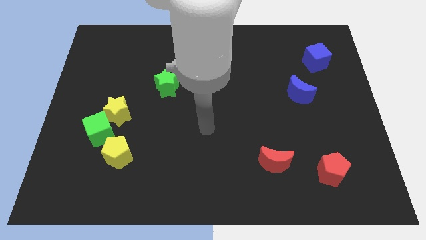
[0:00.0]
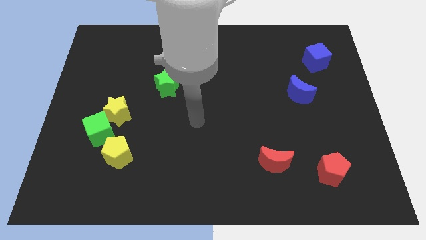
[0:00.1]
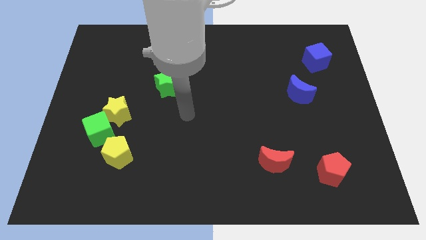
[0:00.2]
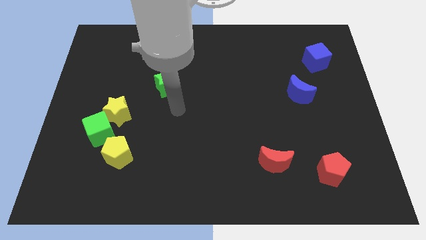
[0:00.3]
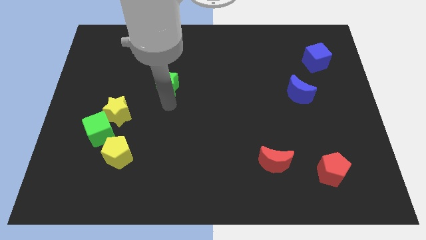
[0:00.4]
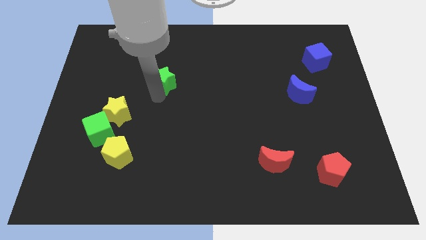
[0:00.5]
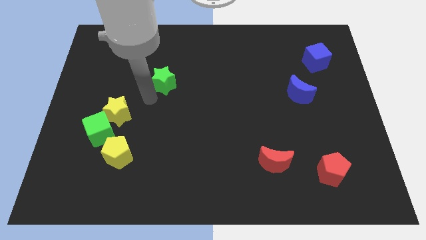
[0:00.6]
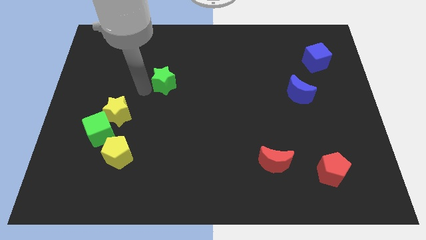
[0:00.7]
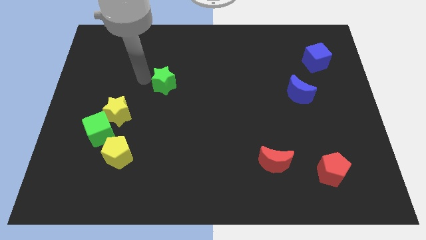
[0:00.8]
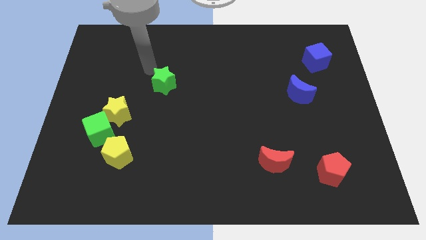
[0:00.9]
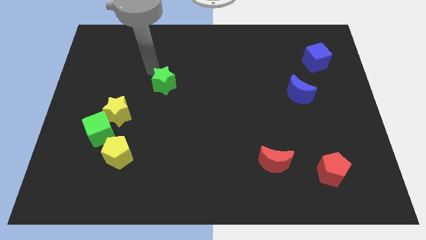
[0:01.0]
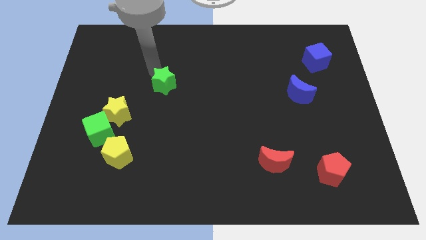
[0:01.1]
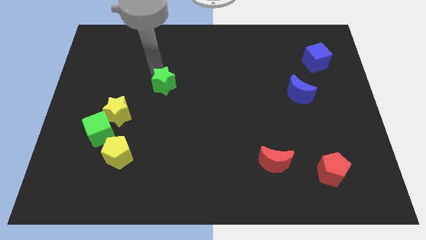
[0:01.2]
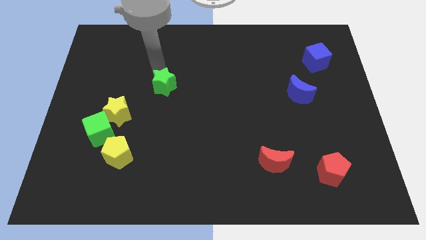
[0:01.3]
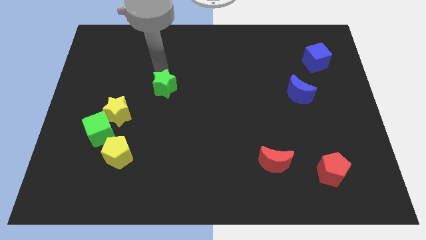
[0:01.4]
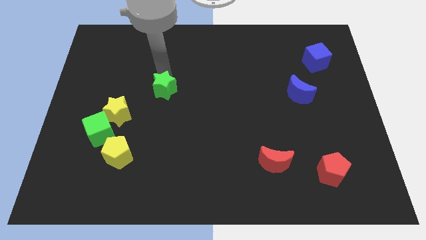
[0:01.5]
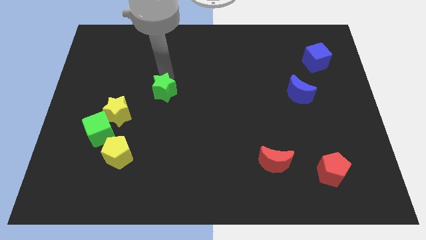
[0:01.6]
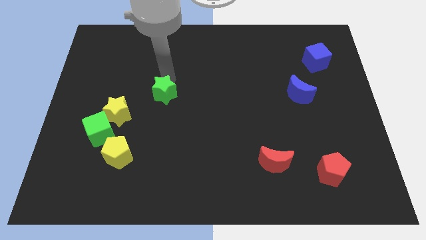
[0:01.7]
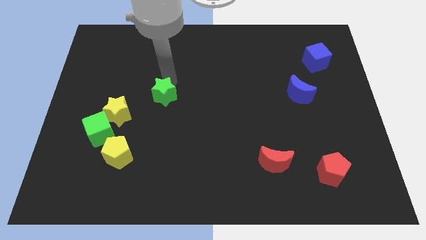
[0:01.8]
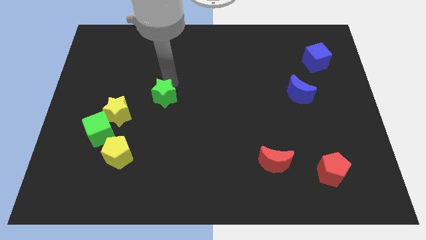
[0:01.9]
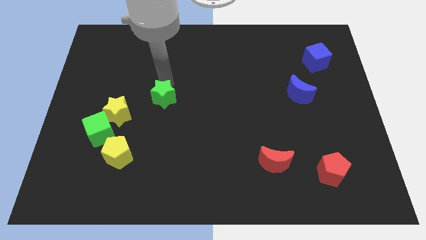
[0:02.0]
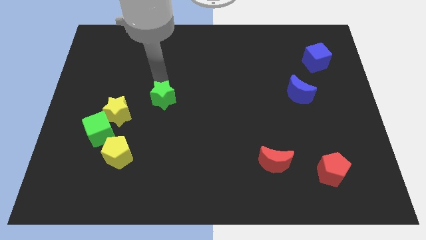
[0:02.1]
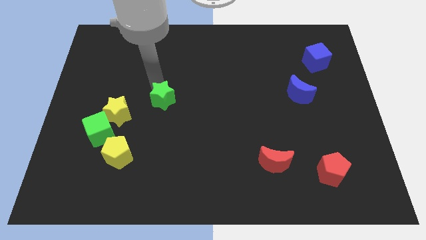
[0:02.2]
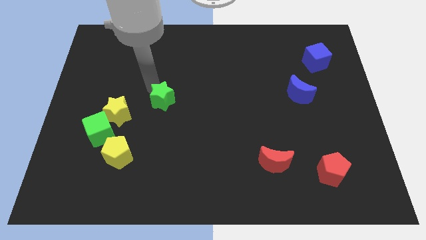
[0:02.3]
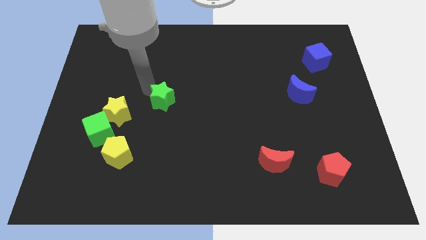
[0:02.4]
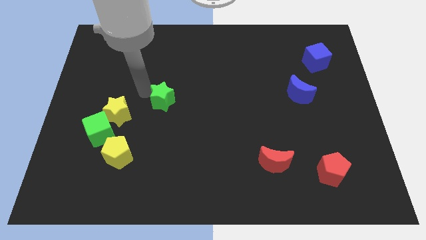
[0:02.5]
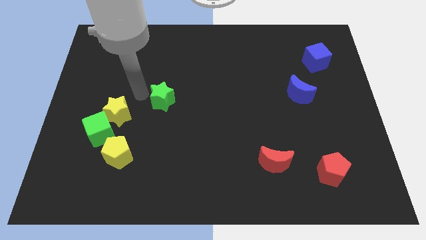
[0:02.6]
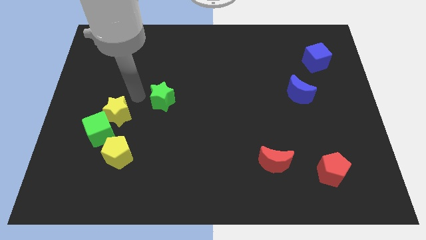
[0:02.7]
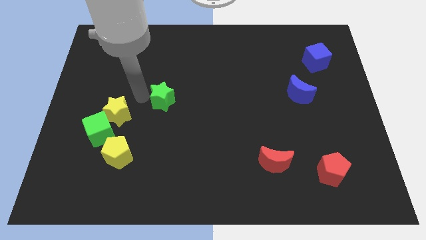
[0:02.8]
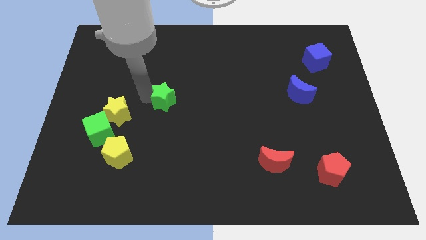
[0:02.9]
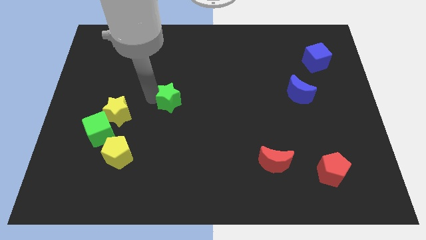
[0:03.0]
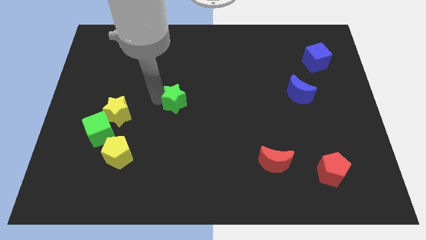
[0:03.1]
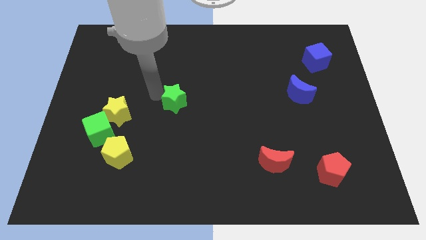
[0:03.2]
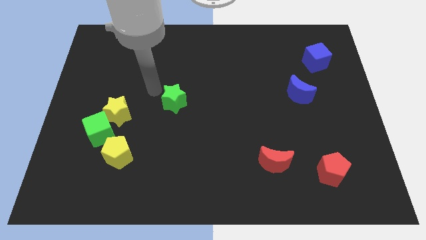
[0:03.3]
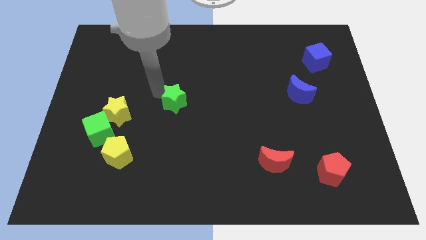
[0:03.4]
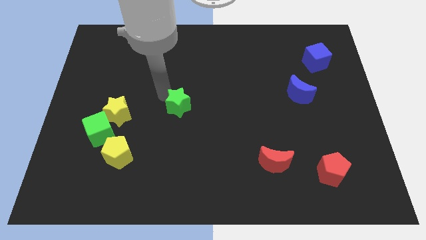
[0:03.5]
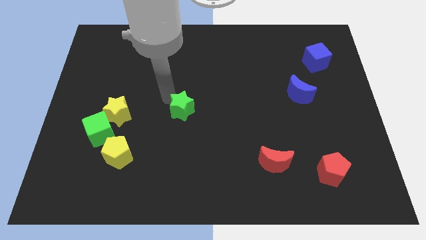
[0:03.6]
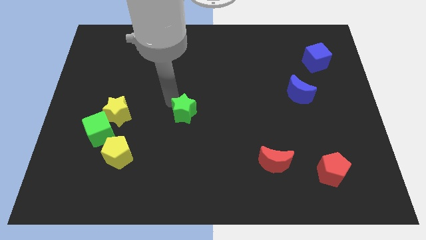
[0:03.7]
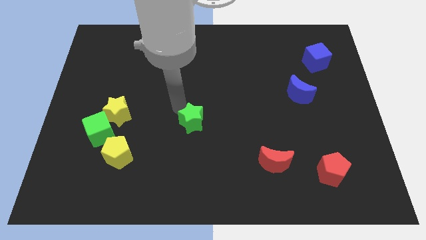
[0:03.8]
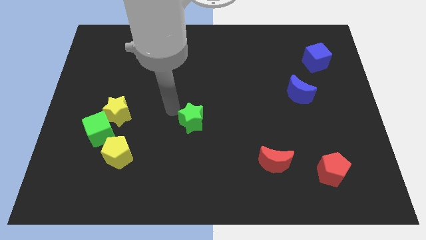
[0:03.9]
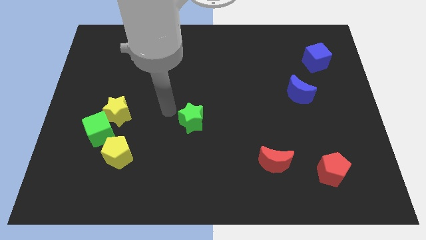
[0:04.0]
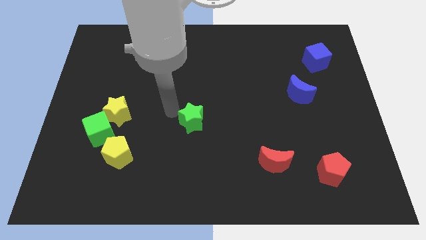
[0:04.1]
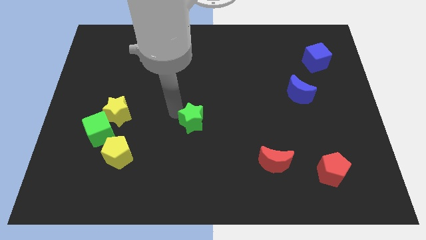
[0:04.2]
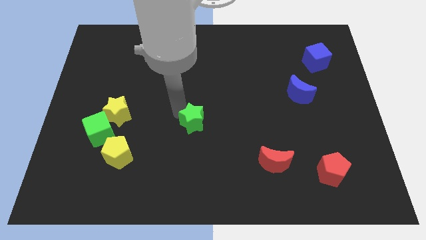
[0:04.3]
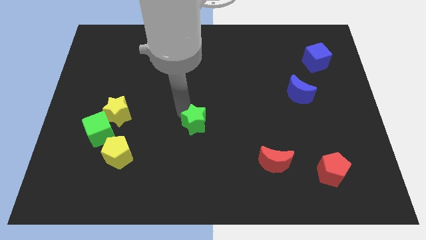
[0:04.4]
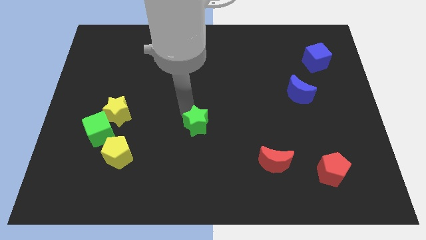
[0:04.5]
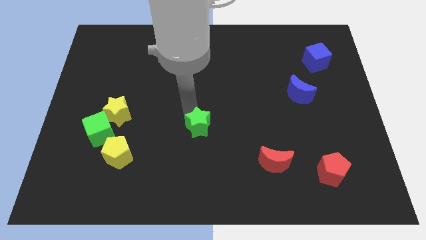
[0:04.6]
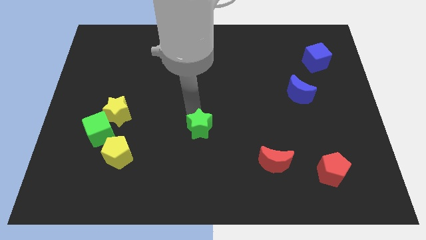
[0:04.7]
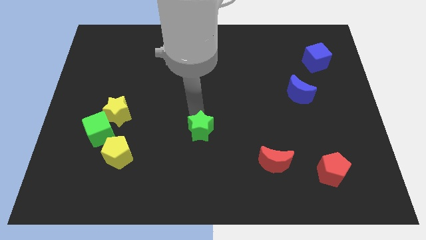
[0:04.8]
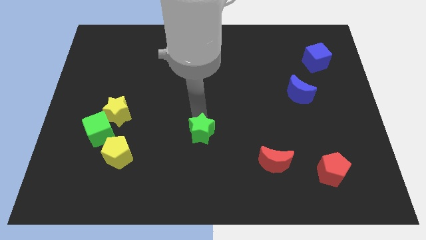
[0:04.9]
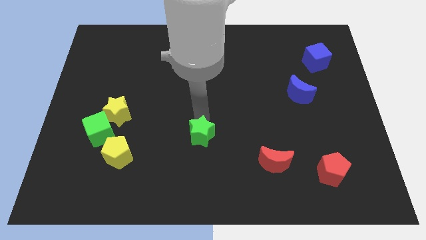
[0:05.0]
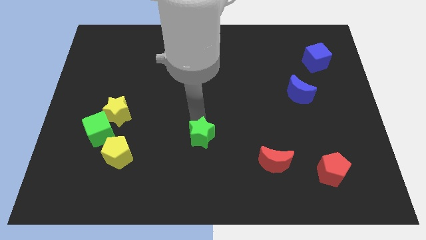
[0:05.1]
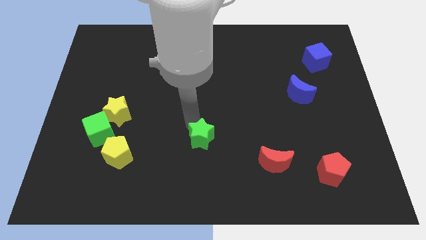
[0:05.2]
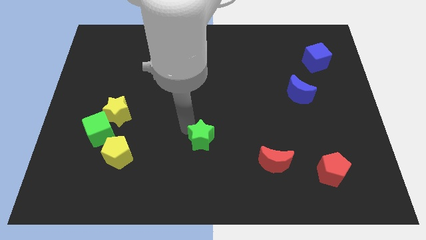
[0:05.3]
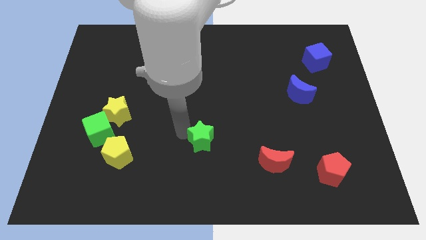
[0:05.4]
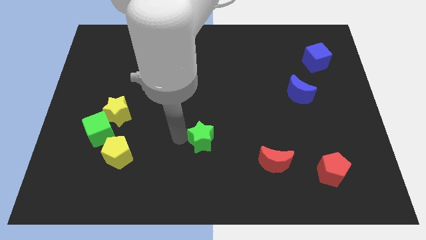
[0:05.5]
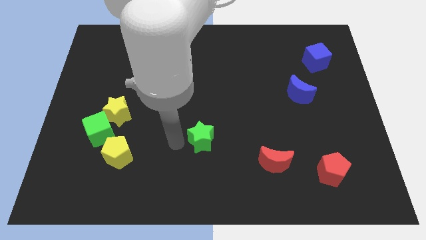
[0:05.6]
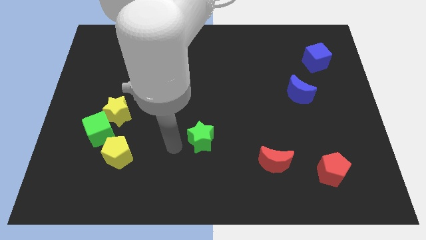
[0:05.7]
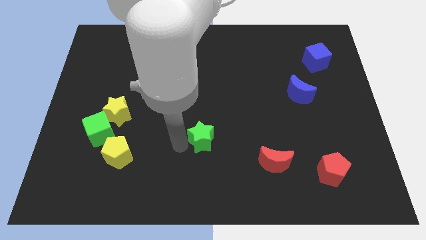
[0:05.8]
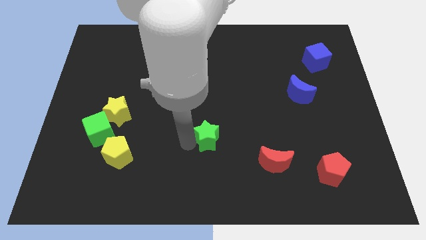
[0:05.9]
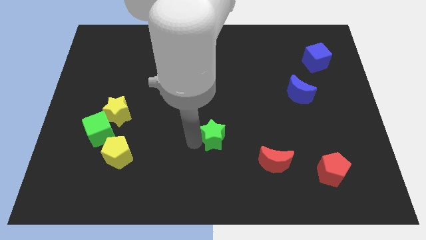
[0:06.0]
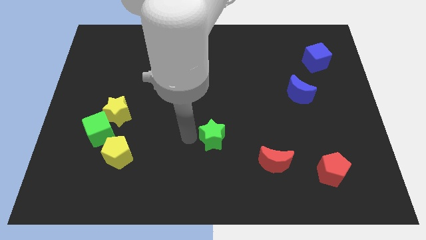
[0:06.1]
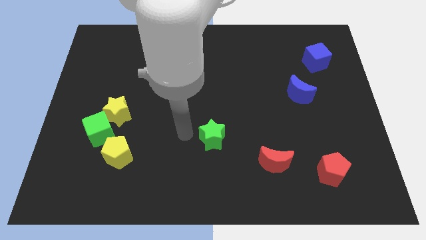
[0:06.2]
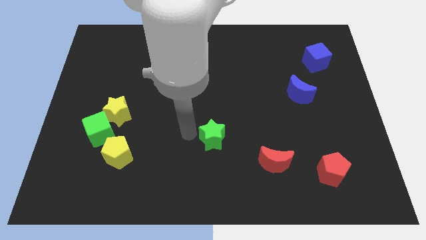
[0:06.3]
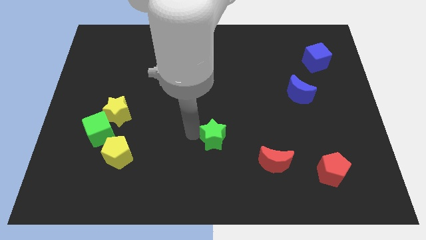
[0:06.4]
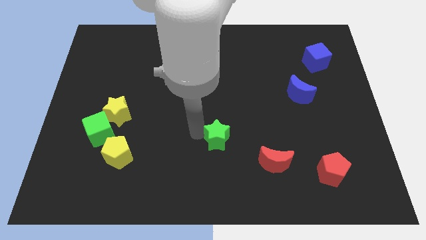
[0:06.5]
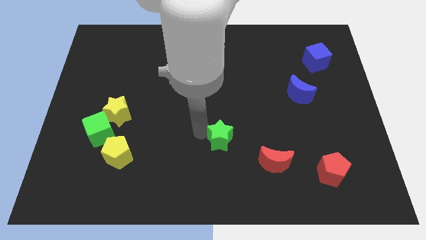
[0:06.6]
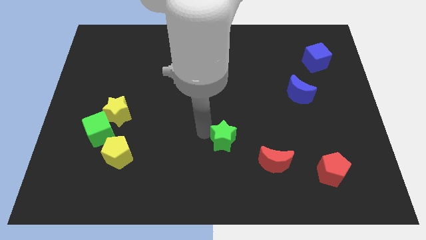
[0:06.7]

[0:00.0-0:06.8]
move the green star to the top left of the red moon

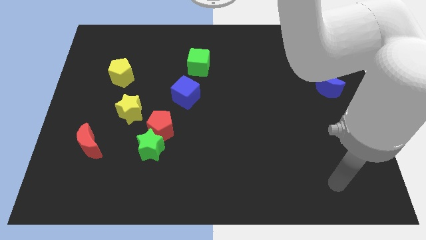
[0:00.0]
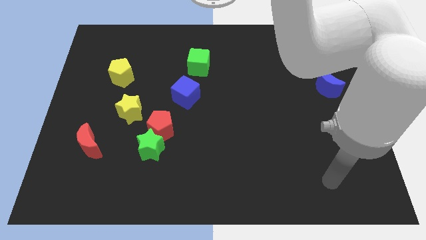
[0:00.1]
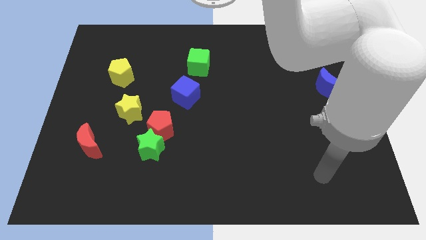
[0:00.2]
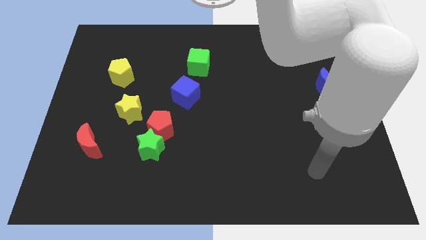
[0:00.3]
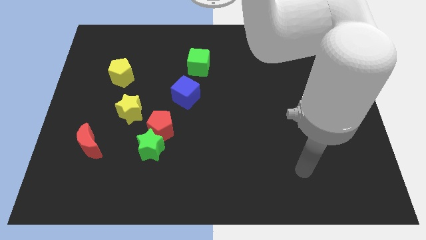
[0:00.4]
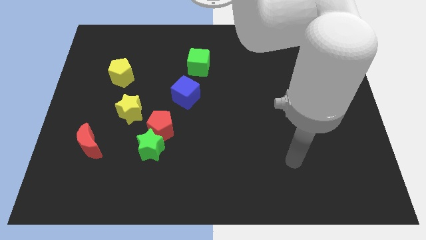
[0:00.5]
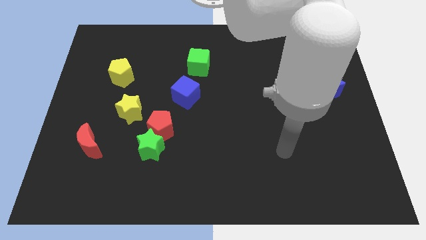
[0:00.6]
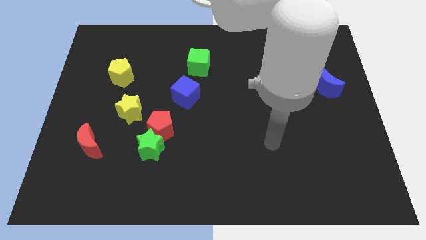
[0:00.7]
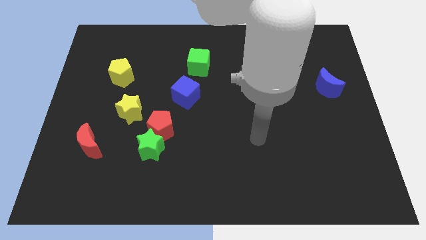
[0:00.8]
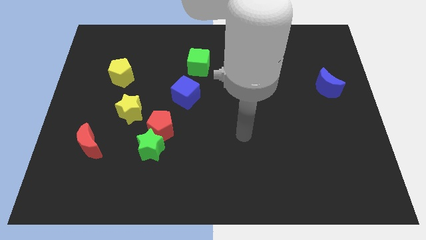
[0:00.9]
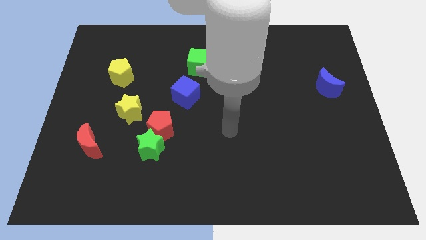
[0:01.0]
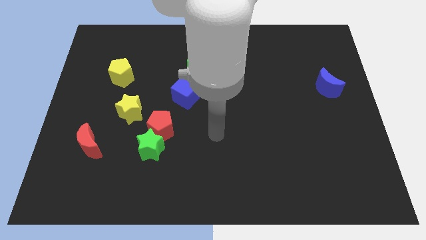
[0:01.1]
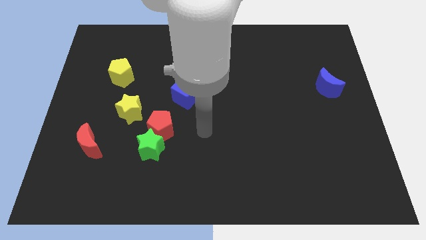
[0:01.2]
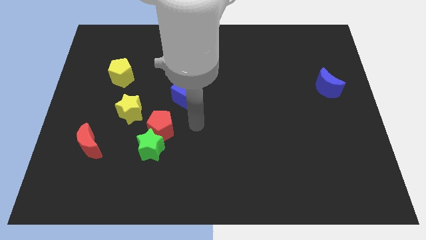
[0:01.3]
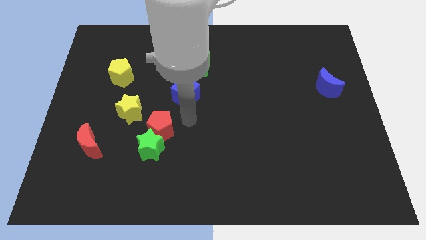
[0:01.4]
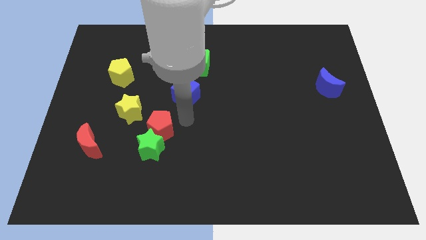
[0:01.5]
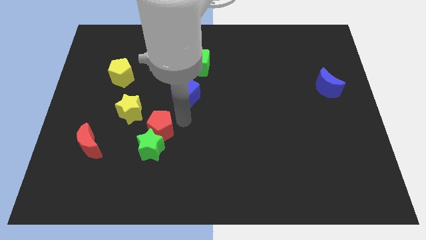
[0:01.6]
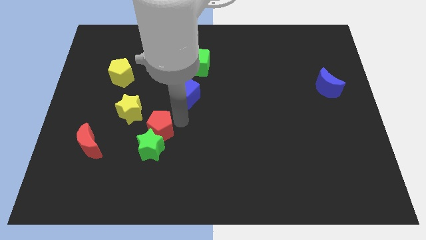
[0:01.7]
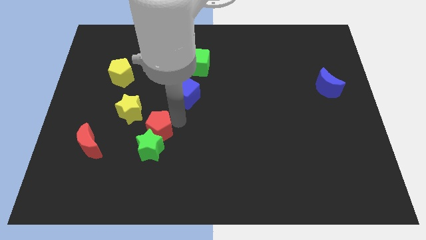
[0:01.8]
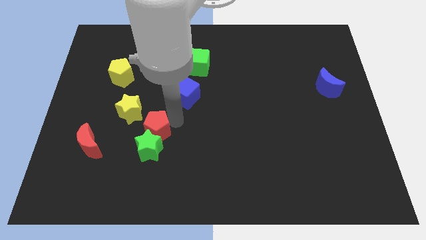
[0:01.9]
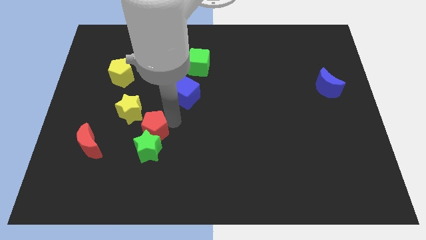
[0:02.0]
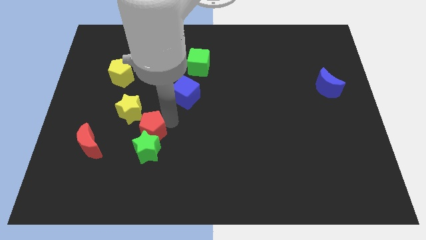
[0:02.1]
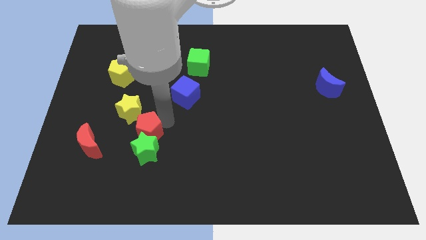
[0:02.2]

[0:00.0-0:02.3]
slide the red pentagon to the bottom of the yellow star
